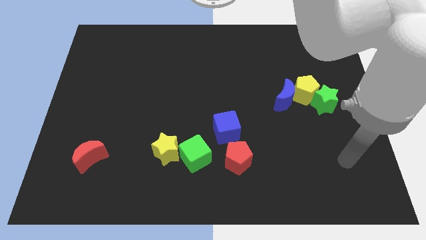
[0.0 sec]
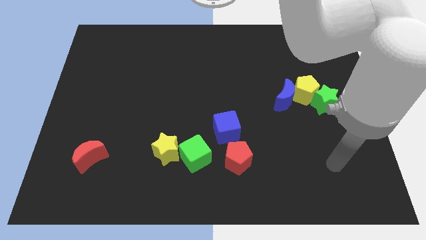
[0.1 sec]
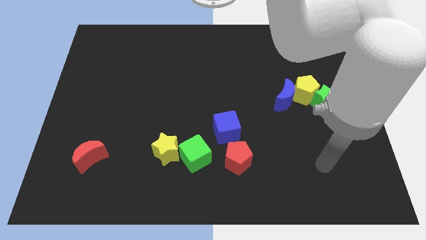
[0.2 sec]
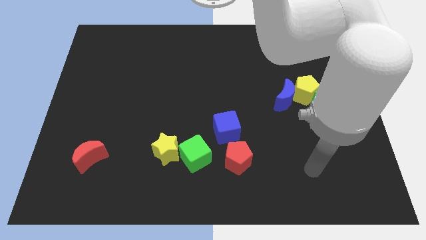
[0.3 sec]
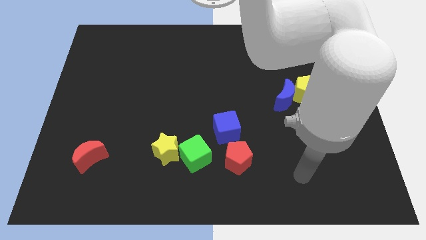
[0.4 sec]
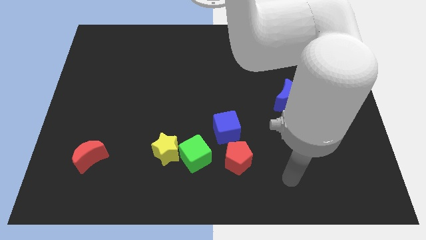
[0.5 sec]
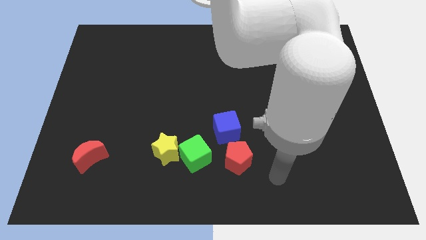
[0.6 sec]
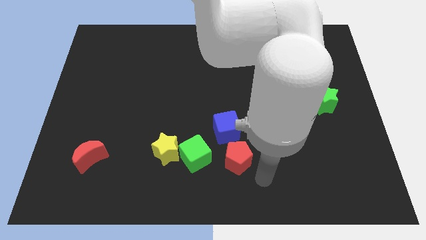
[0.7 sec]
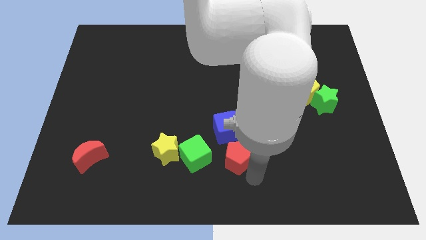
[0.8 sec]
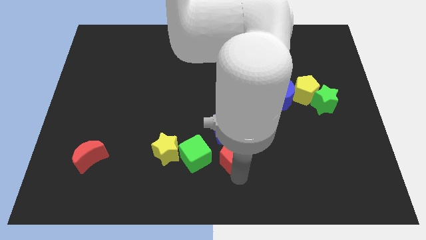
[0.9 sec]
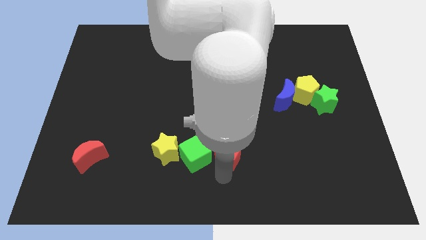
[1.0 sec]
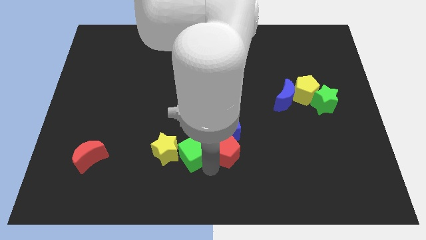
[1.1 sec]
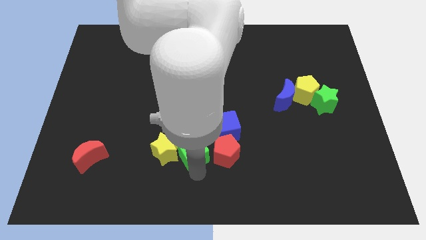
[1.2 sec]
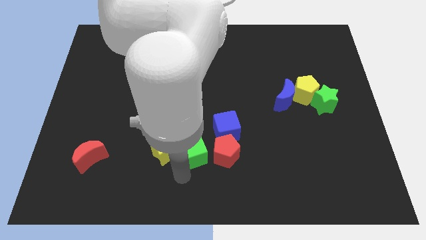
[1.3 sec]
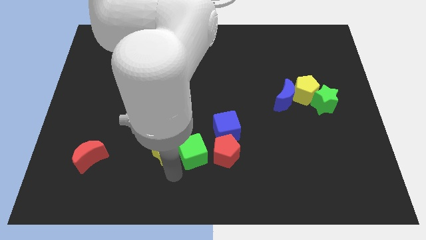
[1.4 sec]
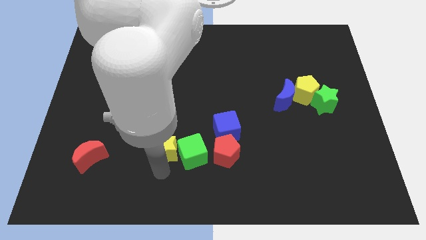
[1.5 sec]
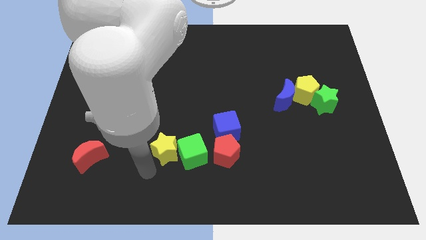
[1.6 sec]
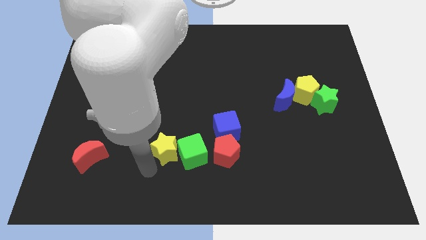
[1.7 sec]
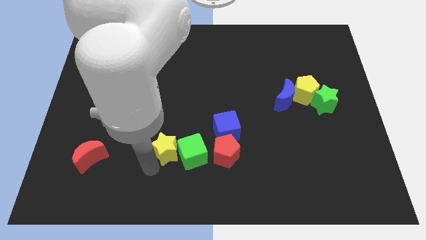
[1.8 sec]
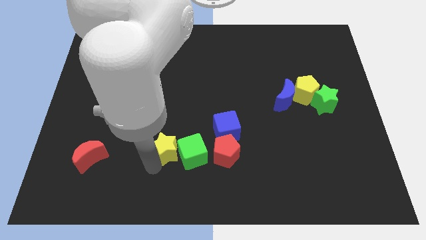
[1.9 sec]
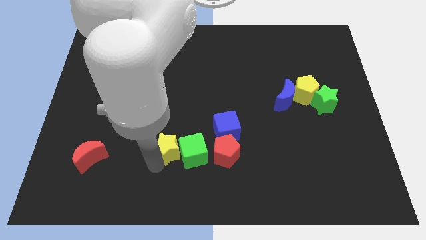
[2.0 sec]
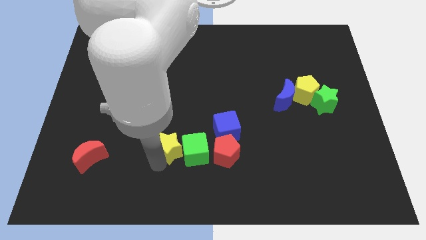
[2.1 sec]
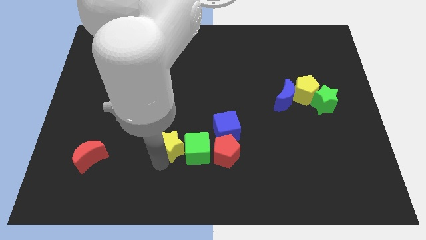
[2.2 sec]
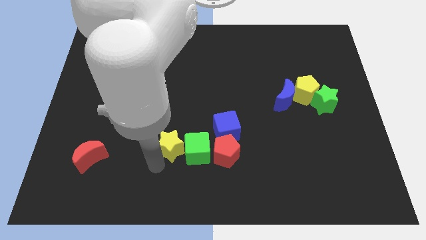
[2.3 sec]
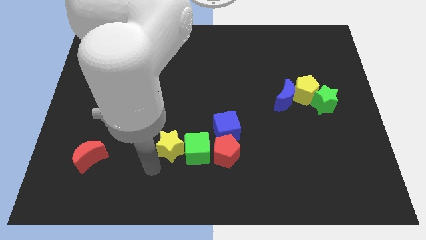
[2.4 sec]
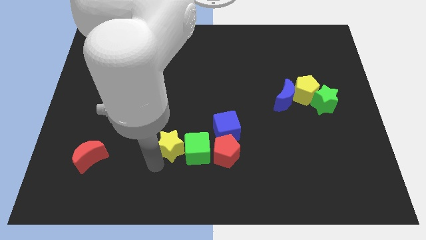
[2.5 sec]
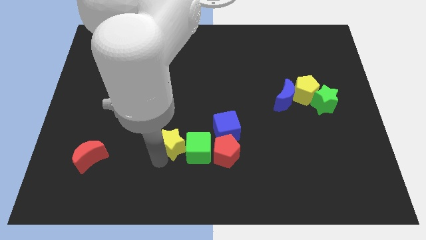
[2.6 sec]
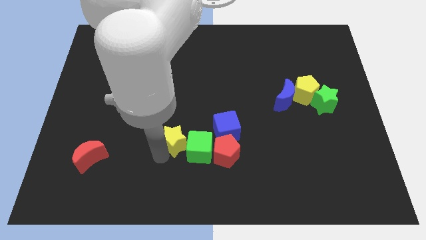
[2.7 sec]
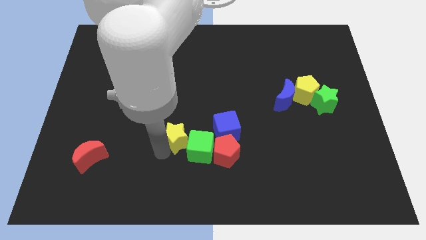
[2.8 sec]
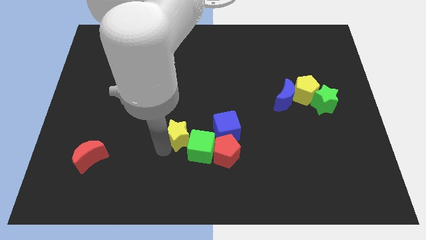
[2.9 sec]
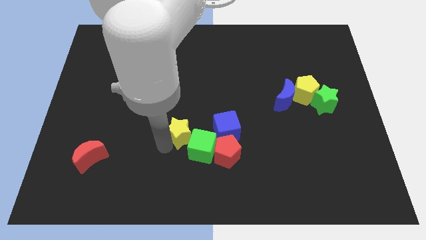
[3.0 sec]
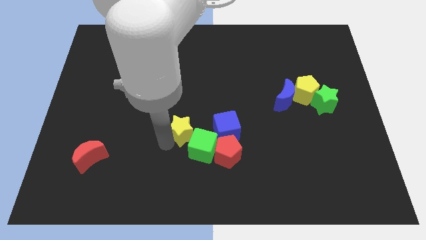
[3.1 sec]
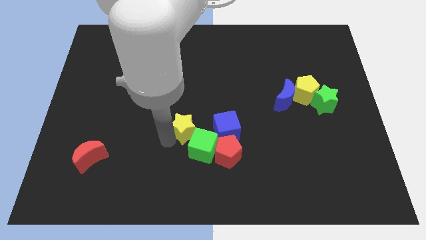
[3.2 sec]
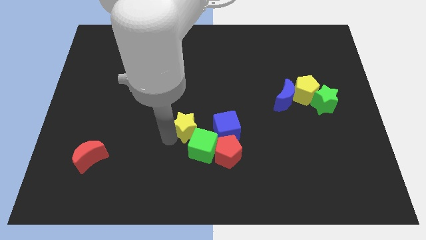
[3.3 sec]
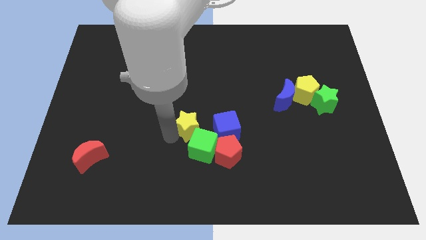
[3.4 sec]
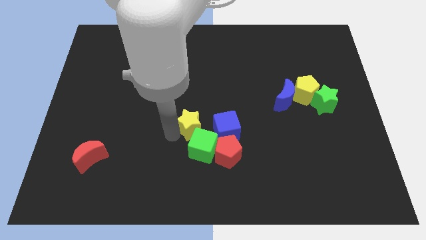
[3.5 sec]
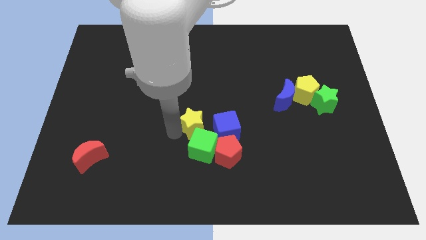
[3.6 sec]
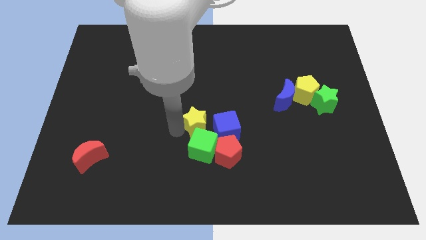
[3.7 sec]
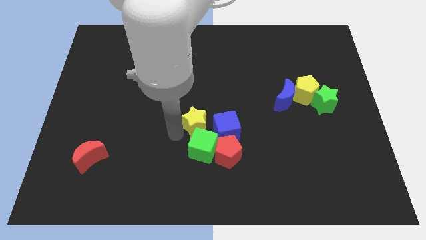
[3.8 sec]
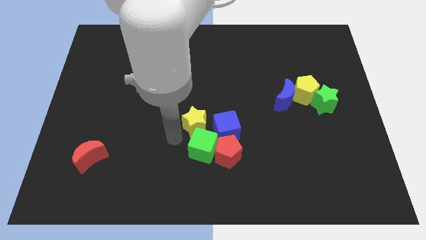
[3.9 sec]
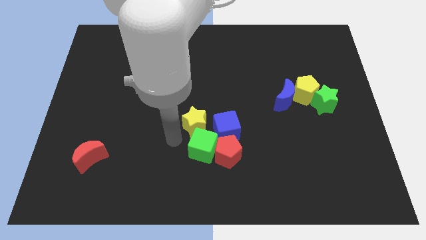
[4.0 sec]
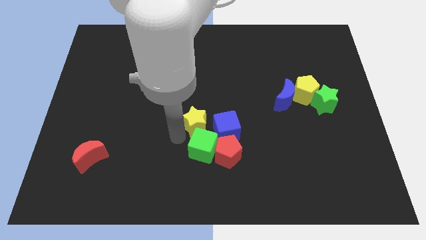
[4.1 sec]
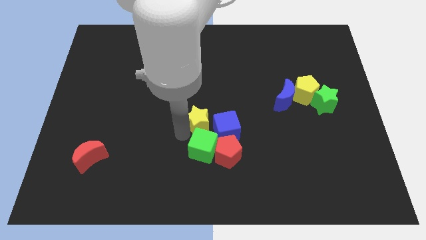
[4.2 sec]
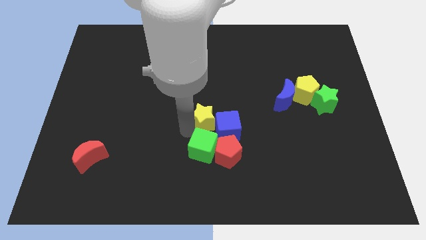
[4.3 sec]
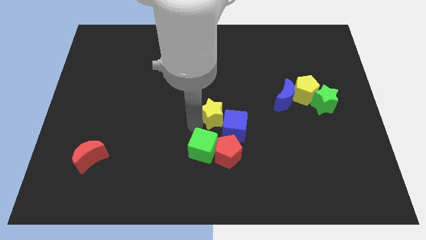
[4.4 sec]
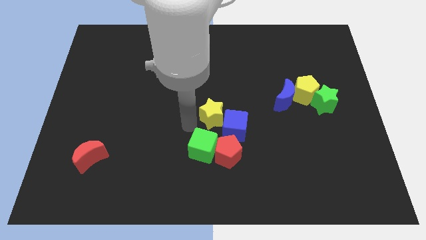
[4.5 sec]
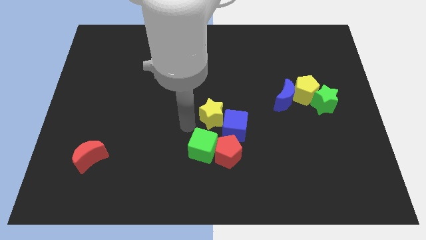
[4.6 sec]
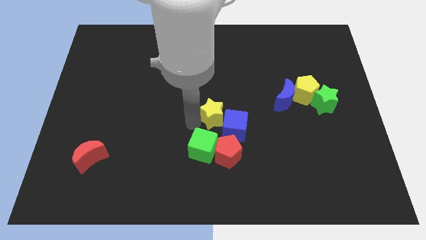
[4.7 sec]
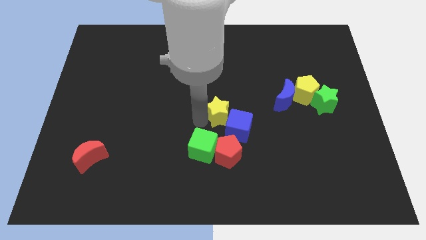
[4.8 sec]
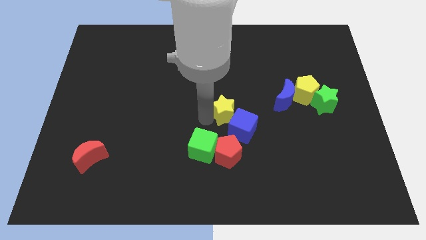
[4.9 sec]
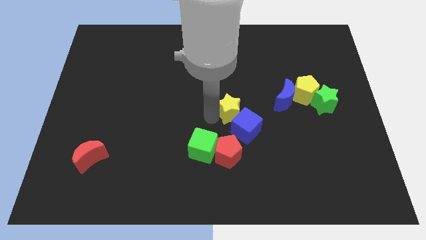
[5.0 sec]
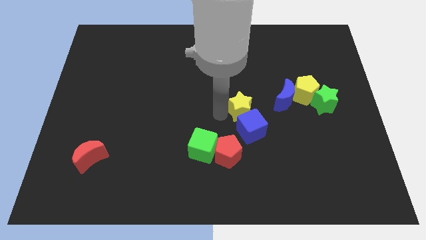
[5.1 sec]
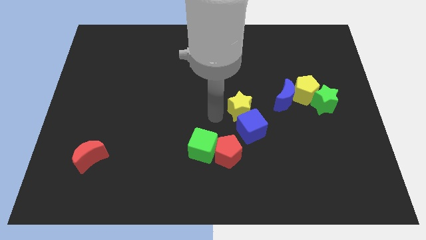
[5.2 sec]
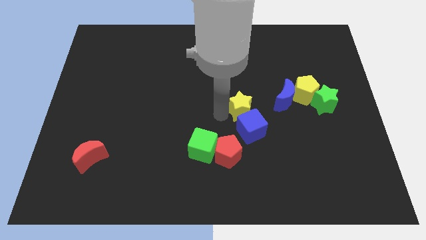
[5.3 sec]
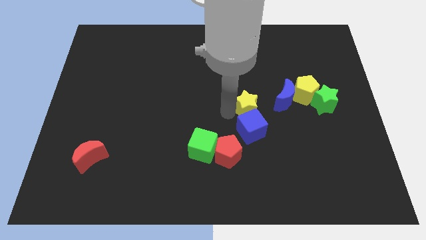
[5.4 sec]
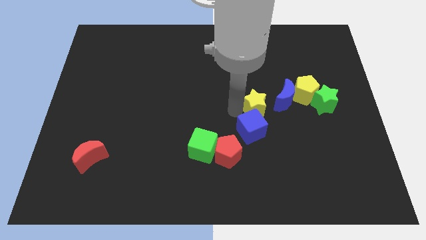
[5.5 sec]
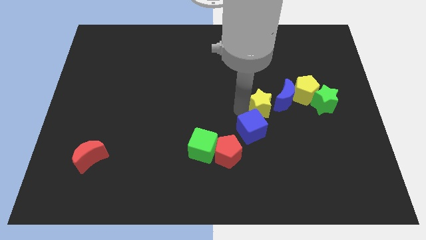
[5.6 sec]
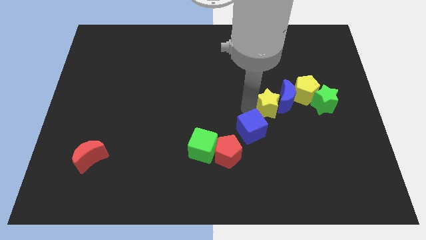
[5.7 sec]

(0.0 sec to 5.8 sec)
move the yellow star towards the blue moon

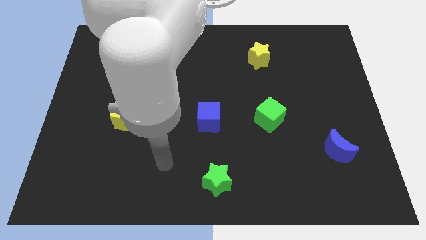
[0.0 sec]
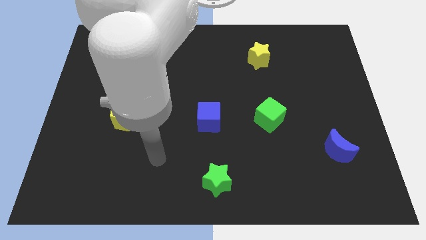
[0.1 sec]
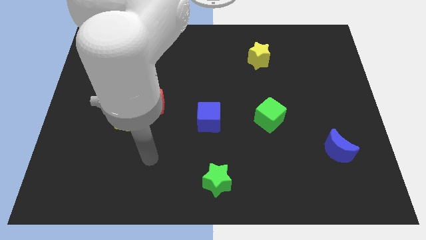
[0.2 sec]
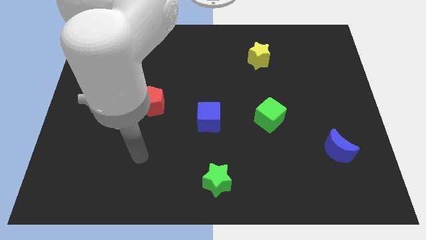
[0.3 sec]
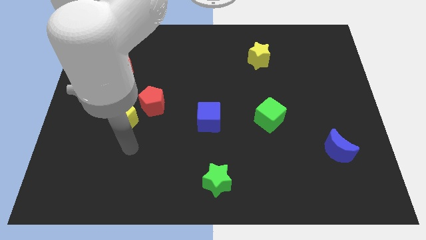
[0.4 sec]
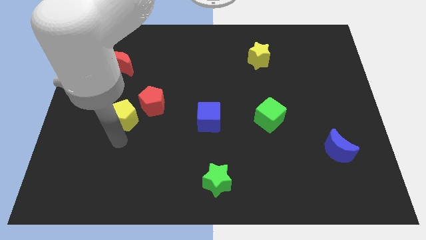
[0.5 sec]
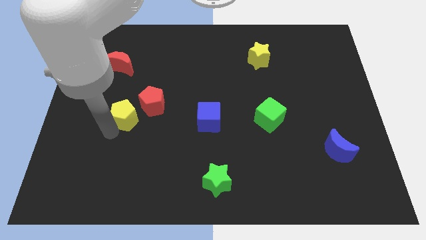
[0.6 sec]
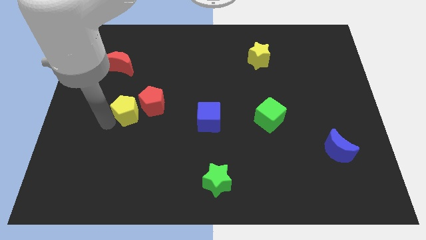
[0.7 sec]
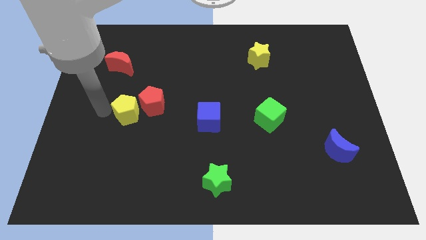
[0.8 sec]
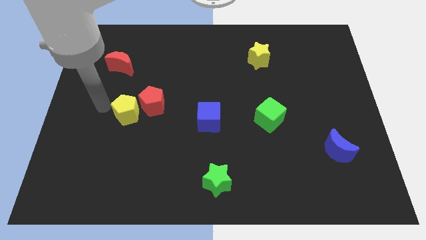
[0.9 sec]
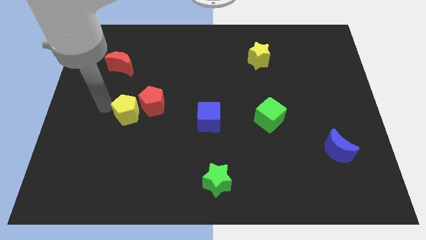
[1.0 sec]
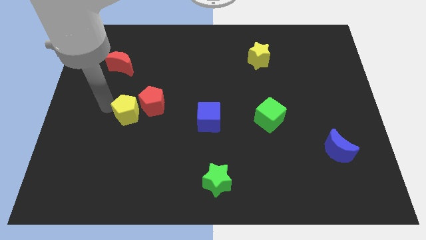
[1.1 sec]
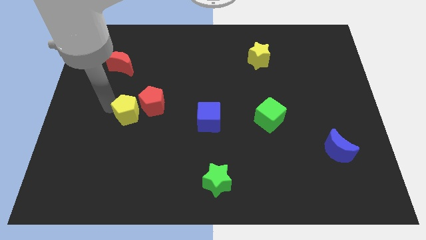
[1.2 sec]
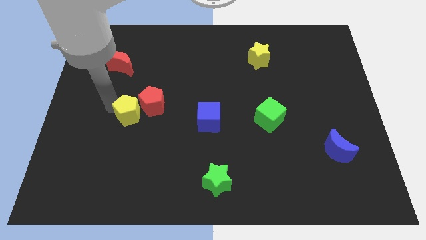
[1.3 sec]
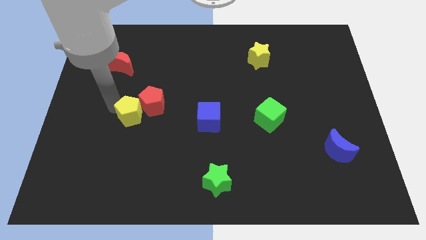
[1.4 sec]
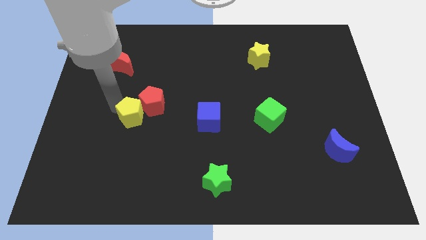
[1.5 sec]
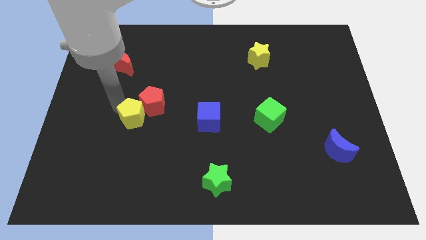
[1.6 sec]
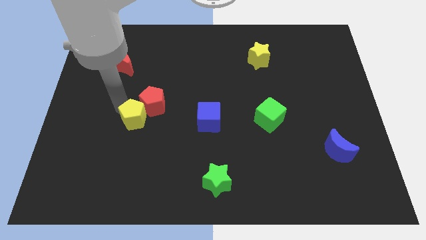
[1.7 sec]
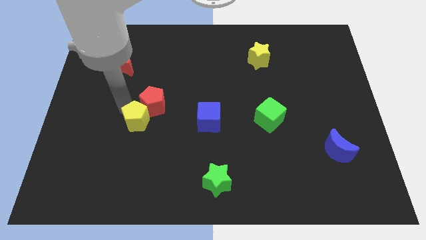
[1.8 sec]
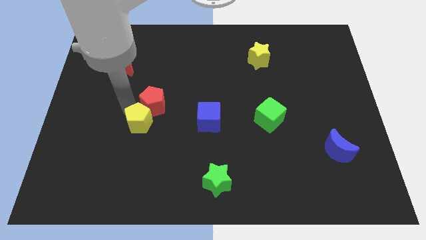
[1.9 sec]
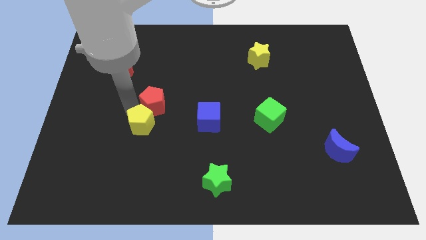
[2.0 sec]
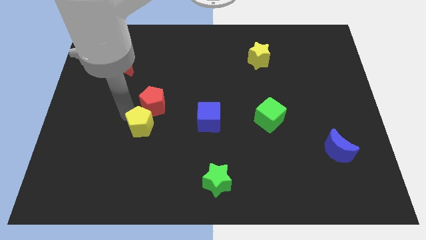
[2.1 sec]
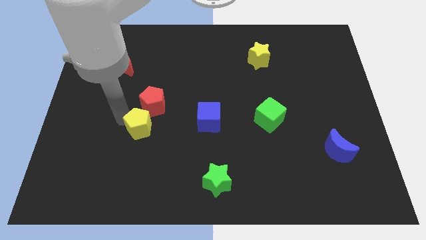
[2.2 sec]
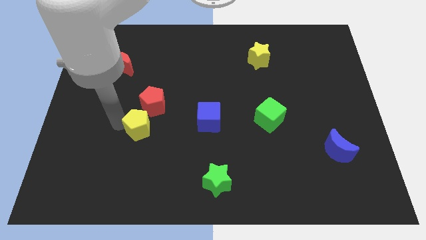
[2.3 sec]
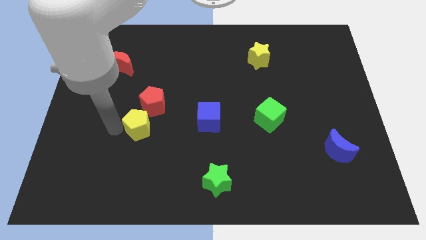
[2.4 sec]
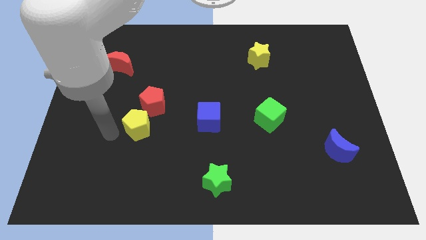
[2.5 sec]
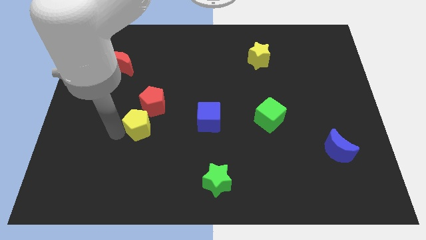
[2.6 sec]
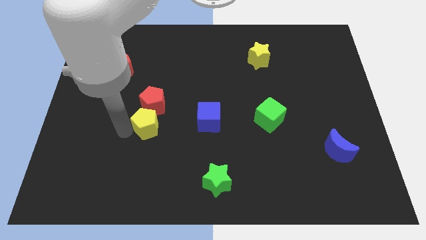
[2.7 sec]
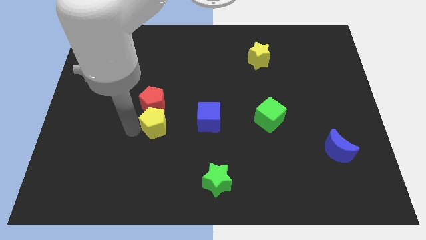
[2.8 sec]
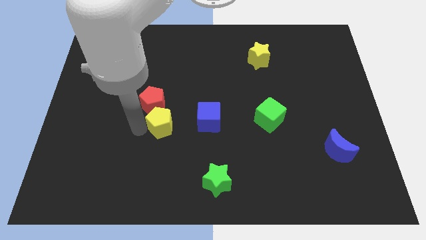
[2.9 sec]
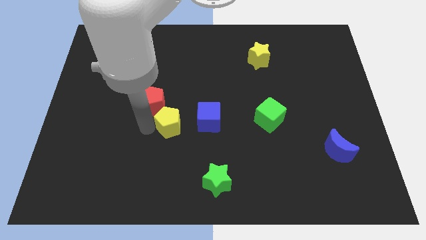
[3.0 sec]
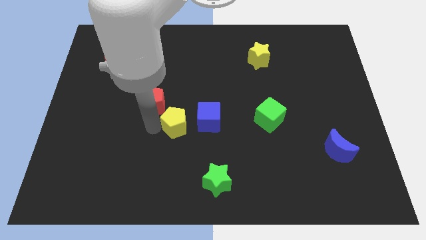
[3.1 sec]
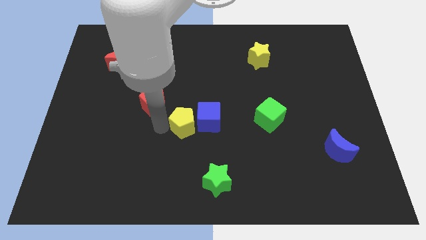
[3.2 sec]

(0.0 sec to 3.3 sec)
put the yellow pentagon to the blue cube
